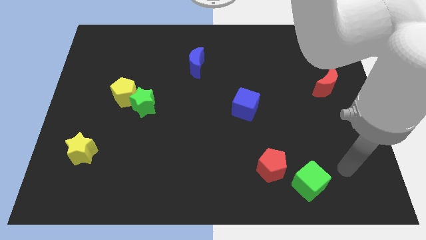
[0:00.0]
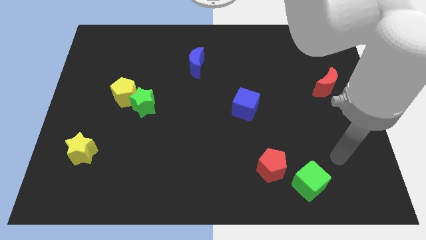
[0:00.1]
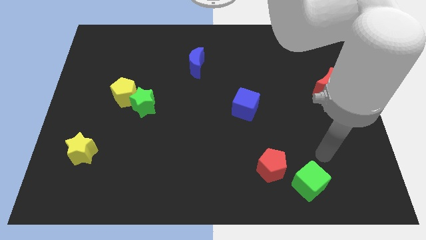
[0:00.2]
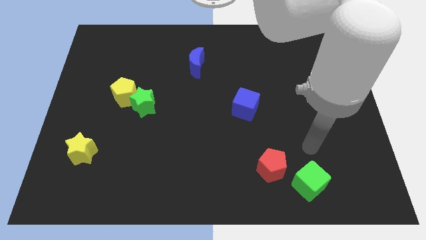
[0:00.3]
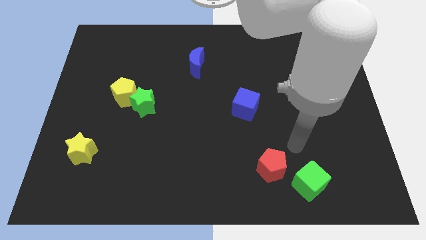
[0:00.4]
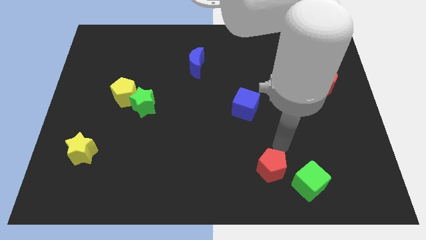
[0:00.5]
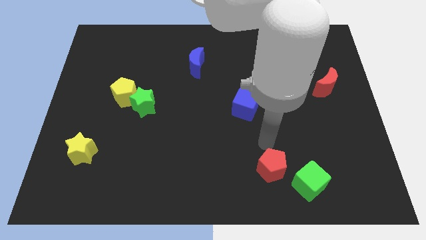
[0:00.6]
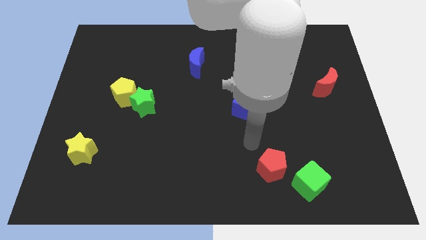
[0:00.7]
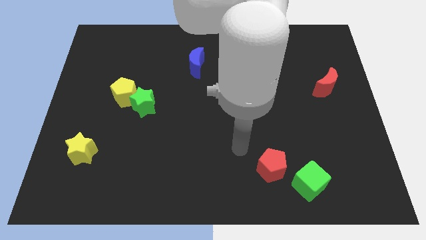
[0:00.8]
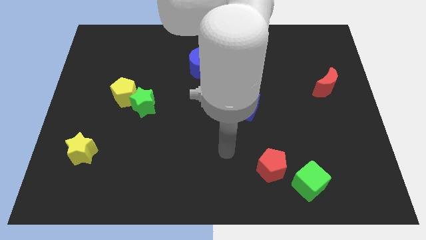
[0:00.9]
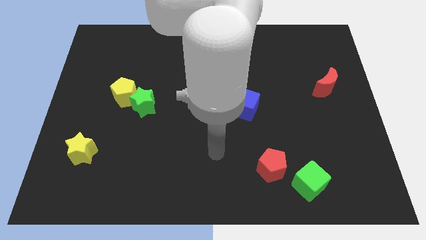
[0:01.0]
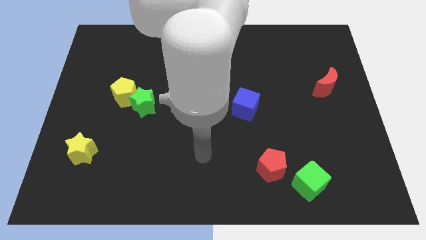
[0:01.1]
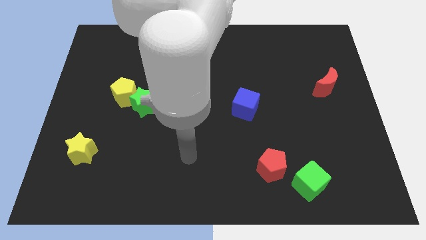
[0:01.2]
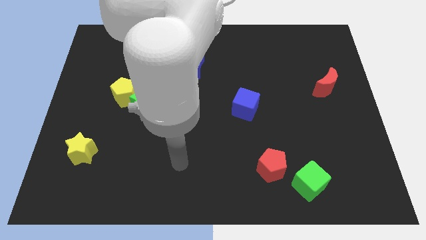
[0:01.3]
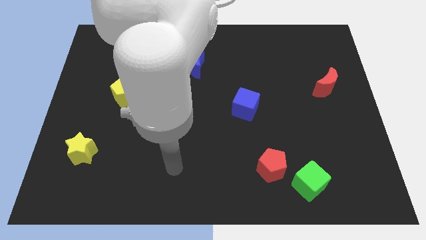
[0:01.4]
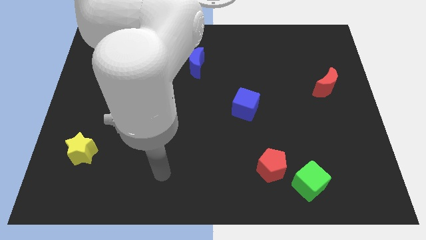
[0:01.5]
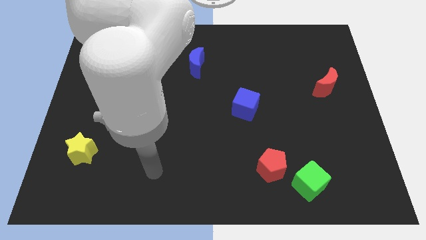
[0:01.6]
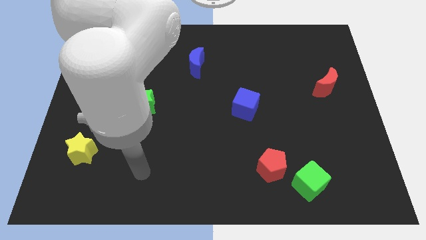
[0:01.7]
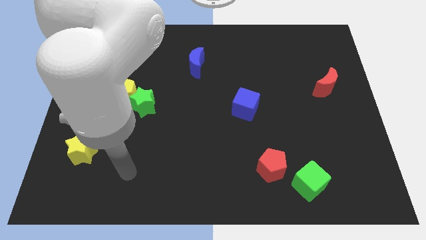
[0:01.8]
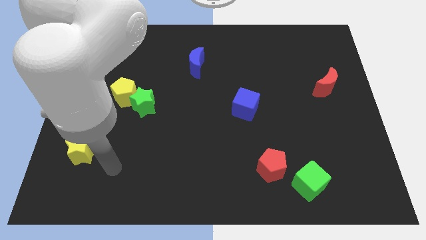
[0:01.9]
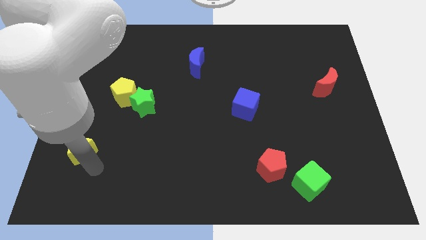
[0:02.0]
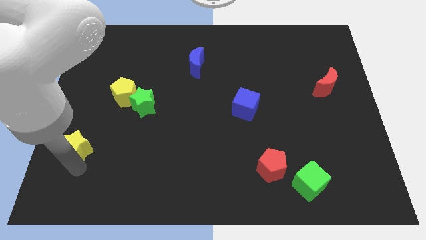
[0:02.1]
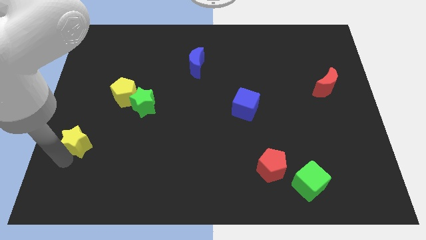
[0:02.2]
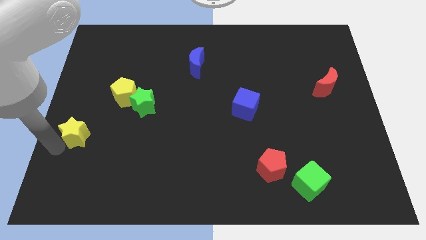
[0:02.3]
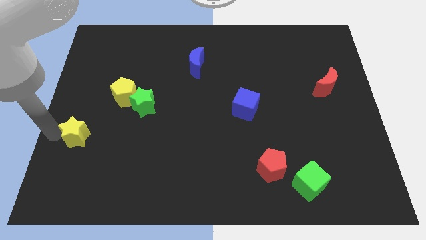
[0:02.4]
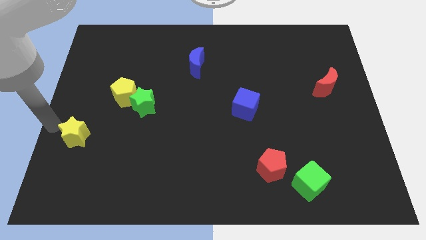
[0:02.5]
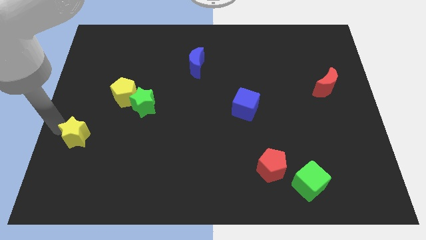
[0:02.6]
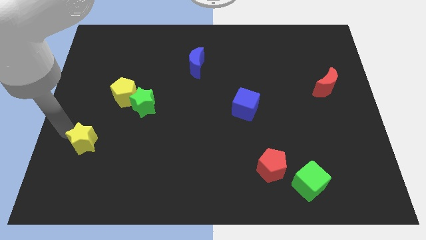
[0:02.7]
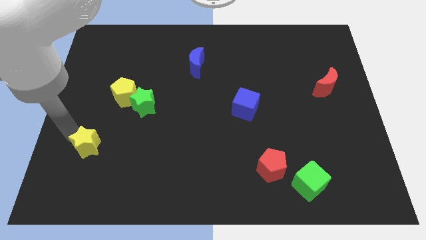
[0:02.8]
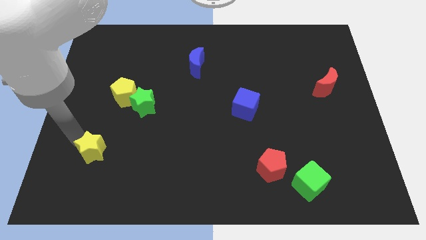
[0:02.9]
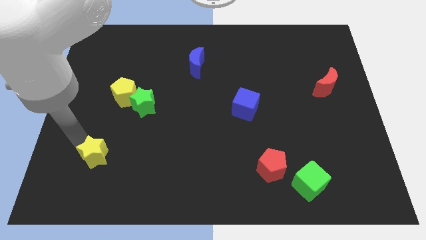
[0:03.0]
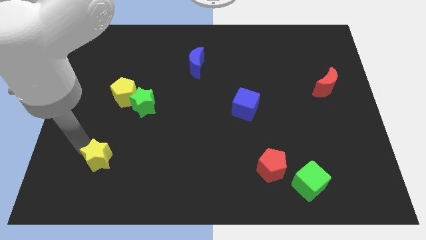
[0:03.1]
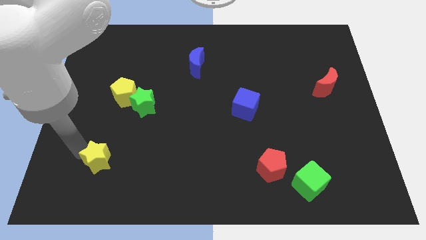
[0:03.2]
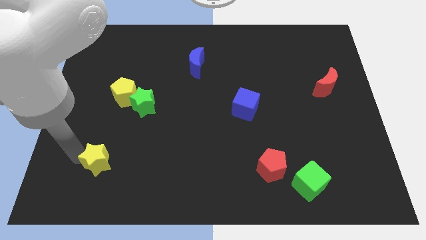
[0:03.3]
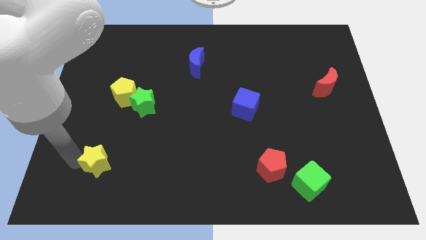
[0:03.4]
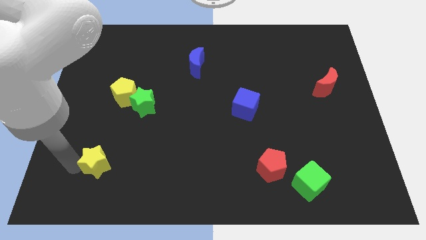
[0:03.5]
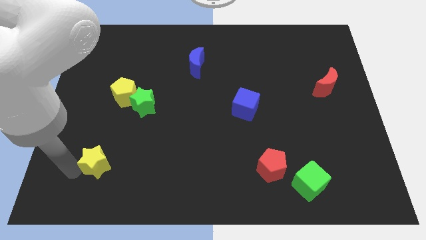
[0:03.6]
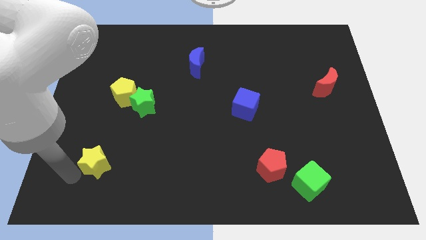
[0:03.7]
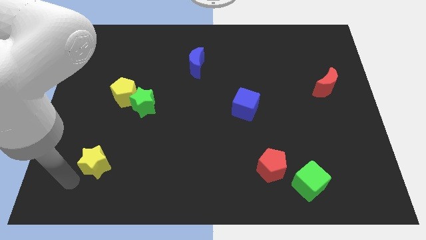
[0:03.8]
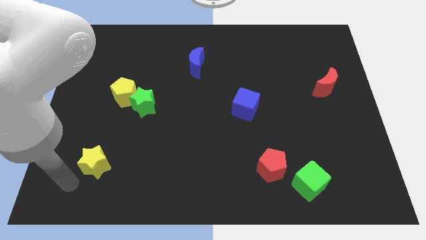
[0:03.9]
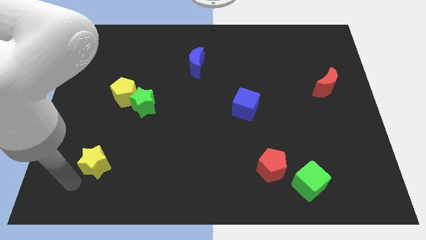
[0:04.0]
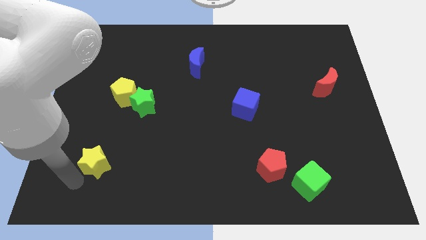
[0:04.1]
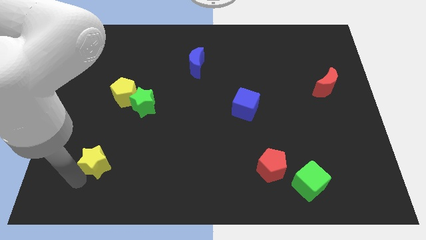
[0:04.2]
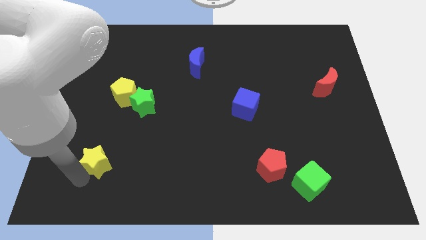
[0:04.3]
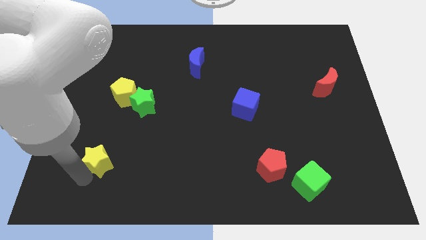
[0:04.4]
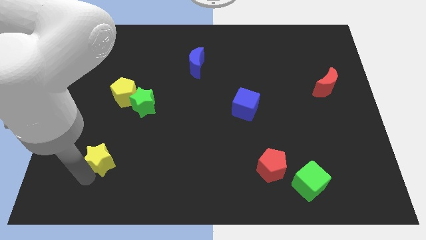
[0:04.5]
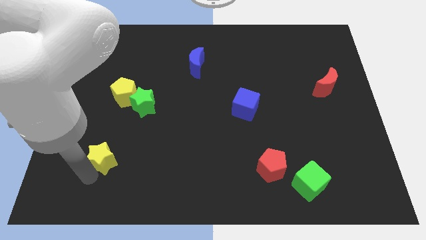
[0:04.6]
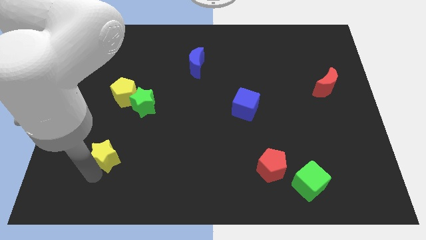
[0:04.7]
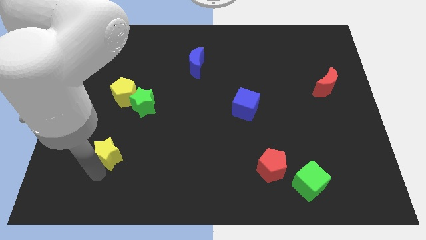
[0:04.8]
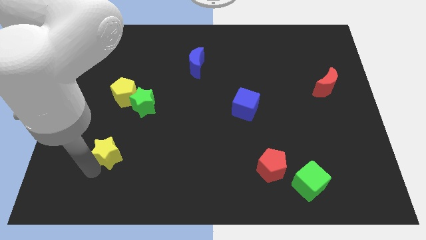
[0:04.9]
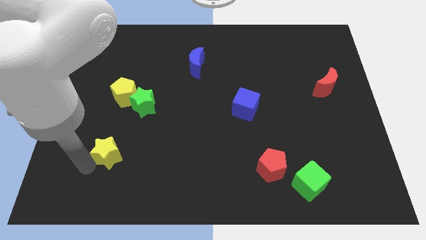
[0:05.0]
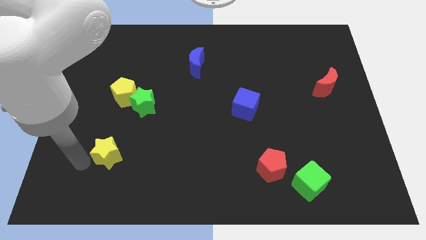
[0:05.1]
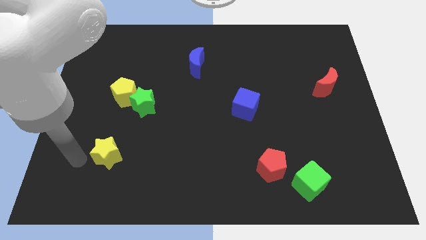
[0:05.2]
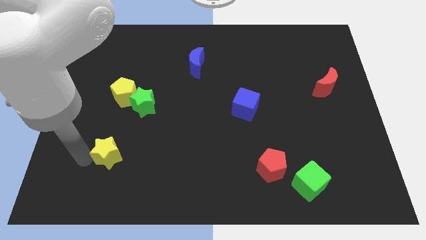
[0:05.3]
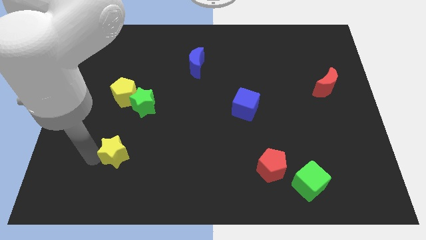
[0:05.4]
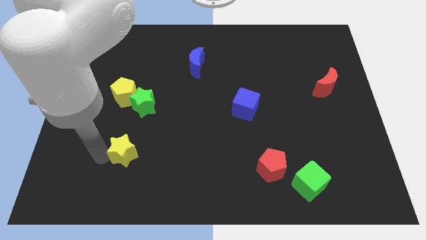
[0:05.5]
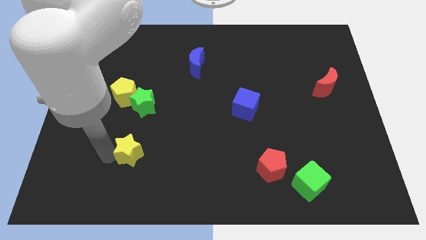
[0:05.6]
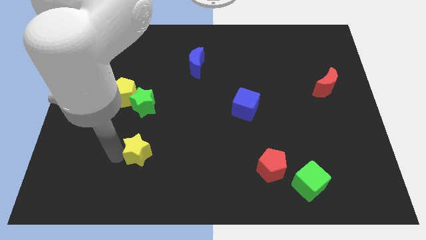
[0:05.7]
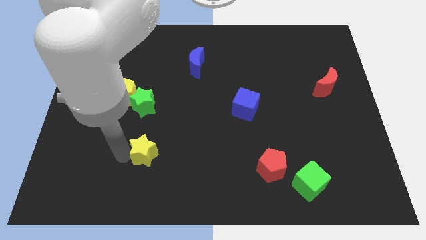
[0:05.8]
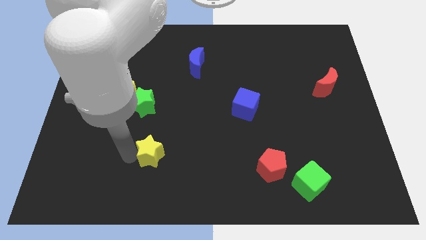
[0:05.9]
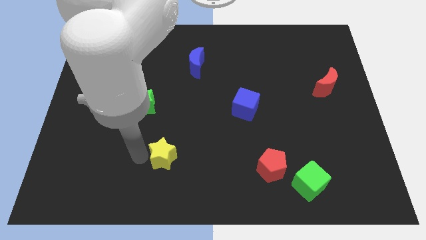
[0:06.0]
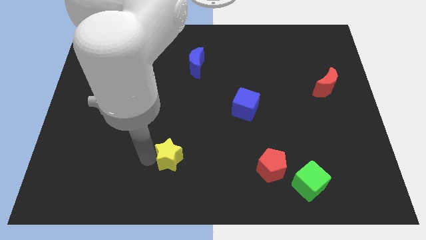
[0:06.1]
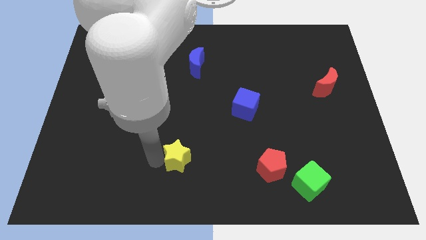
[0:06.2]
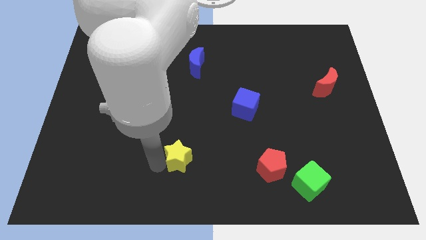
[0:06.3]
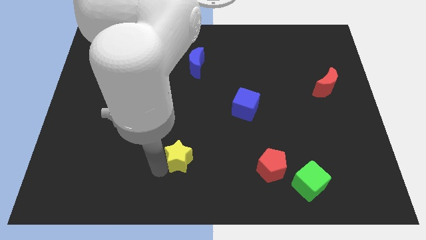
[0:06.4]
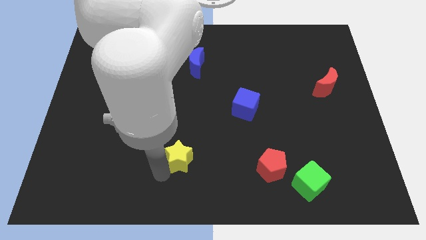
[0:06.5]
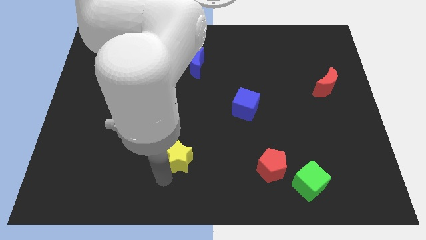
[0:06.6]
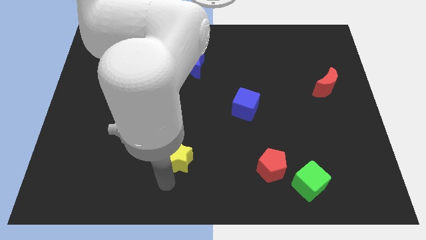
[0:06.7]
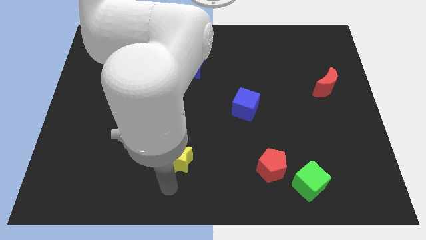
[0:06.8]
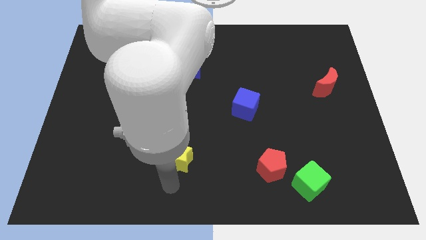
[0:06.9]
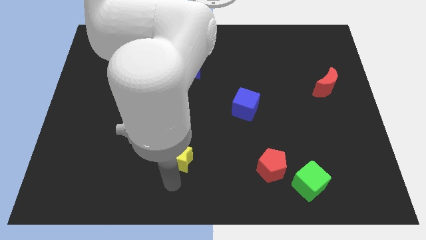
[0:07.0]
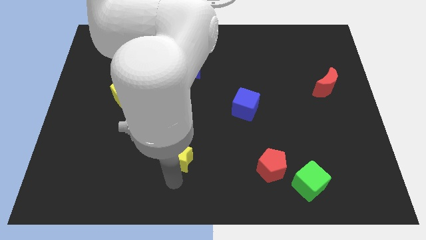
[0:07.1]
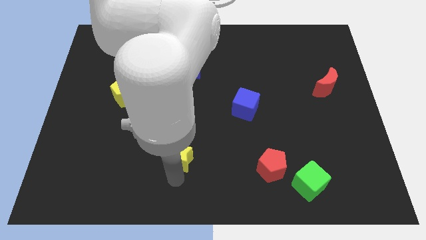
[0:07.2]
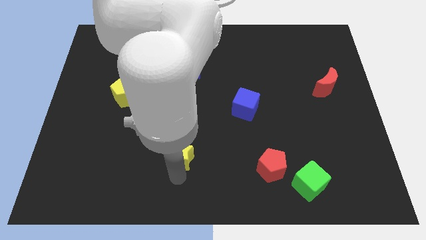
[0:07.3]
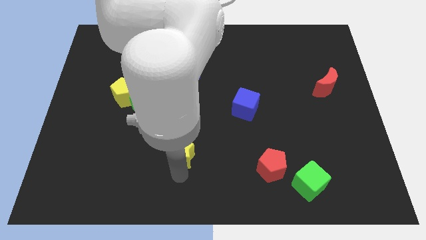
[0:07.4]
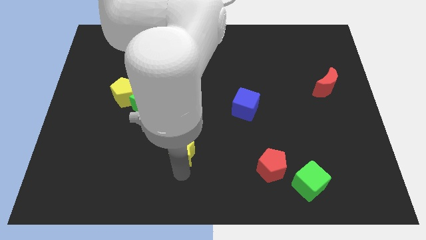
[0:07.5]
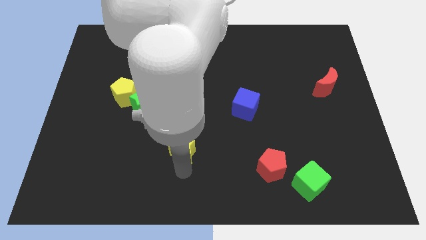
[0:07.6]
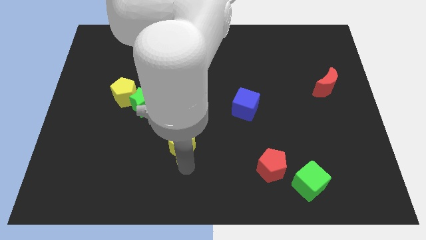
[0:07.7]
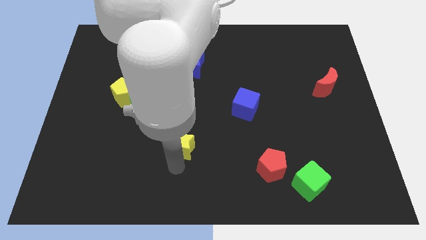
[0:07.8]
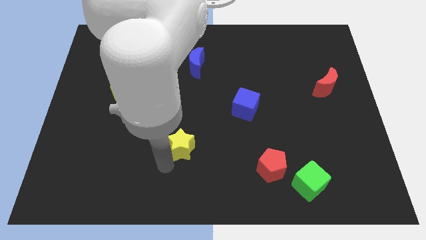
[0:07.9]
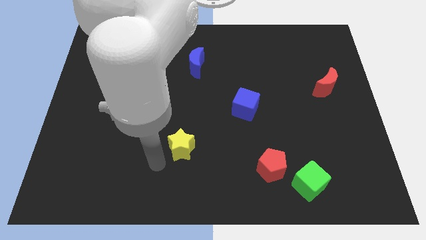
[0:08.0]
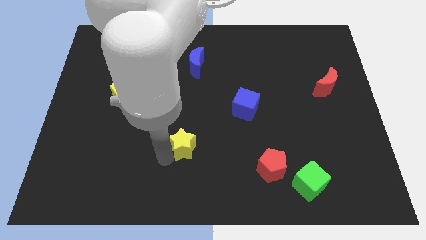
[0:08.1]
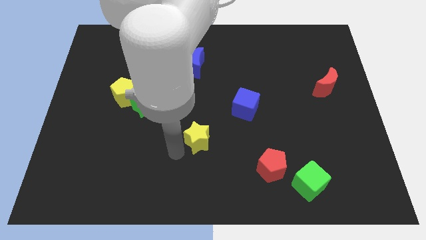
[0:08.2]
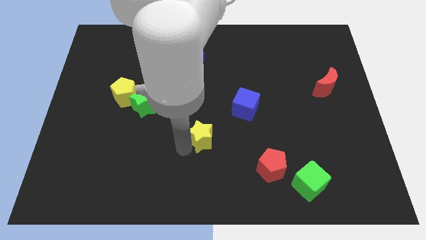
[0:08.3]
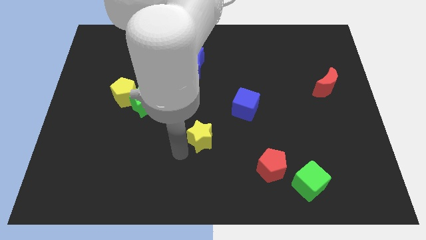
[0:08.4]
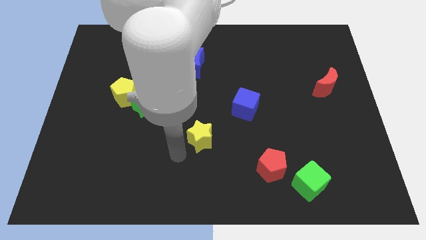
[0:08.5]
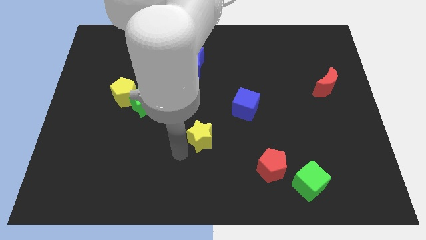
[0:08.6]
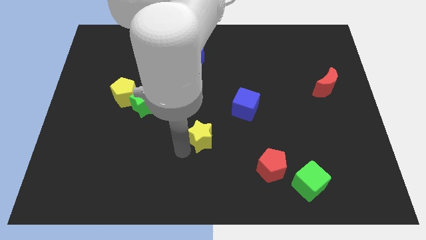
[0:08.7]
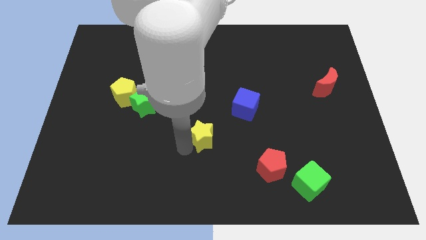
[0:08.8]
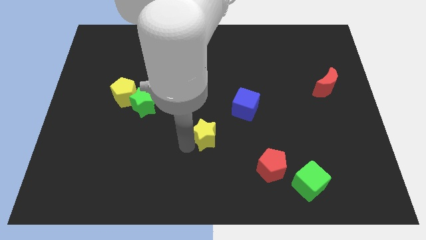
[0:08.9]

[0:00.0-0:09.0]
push the yellow star to the bottom left of the blue cube
